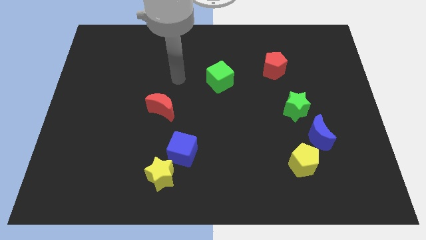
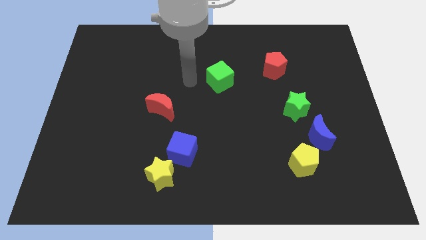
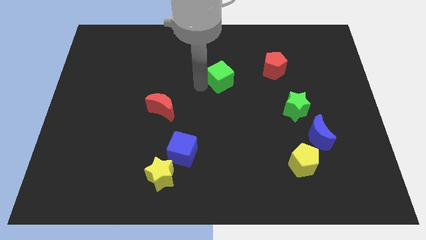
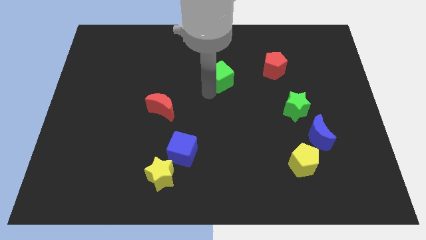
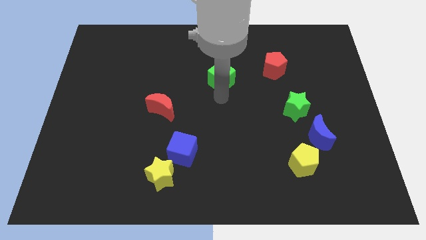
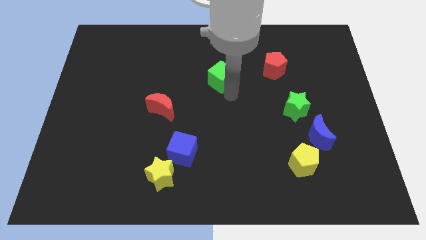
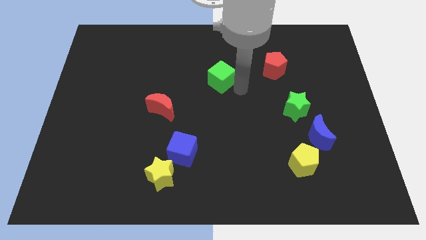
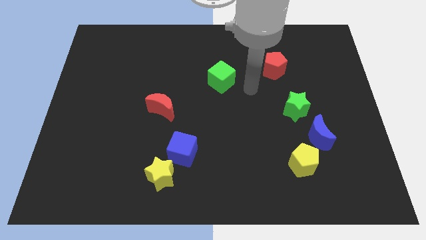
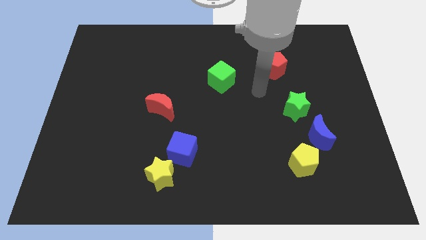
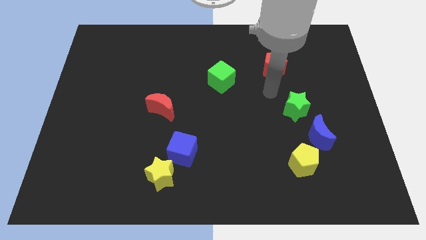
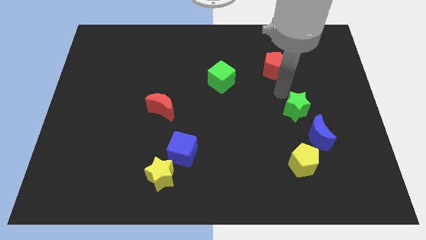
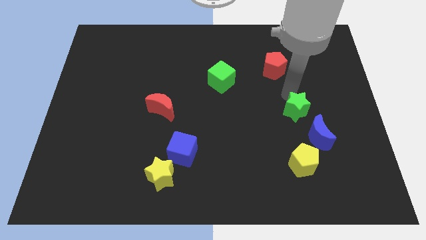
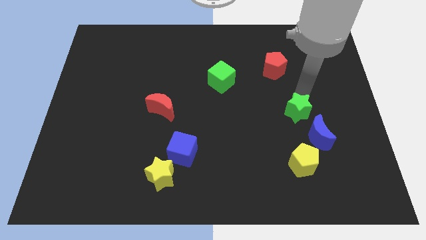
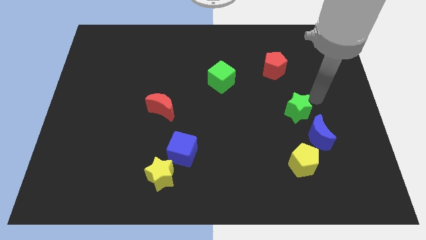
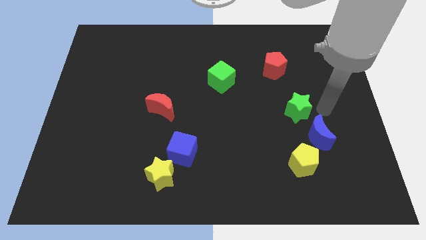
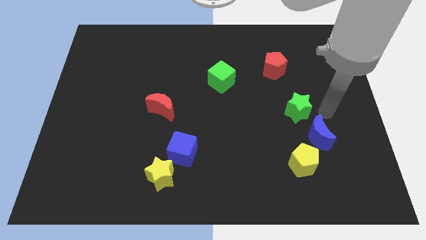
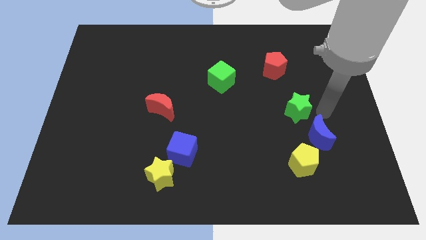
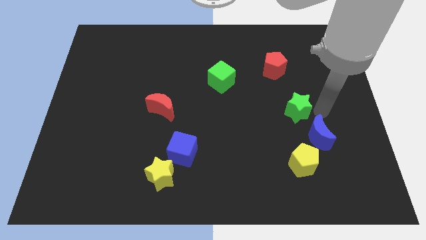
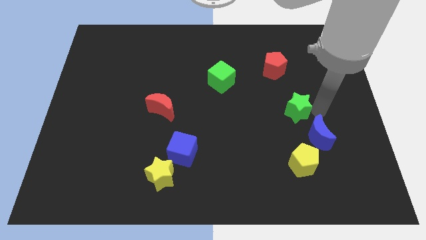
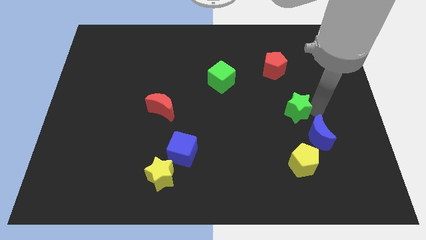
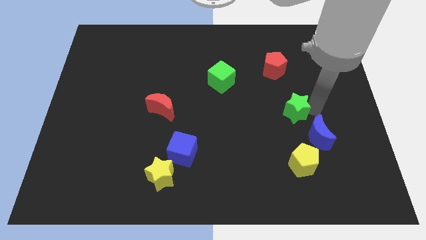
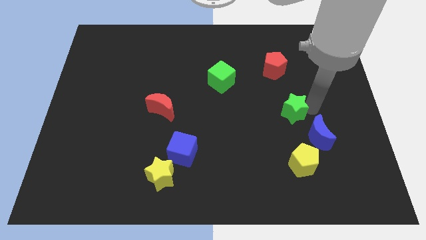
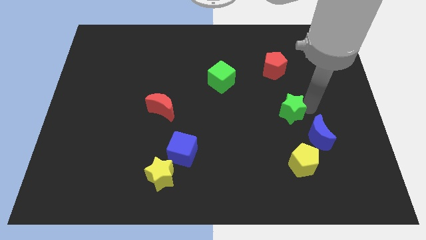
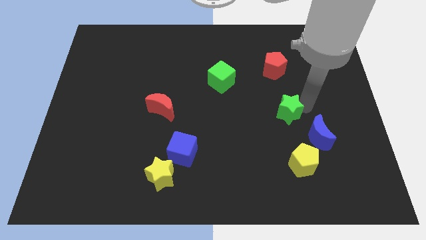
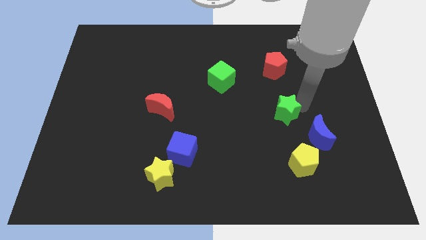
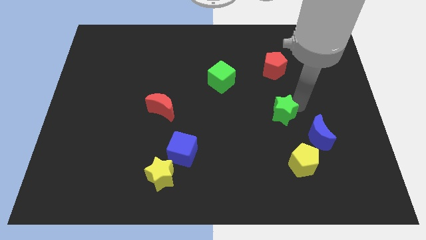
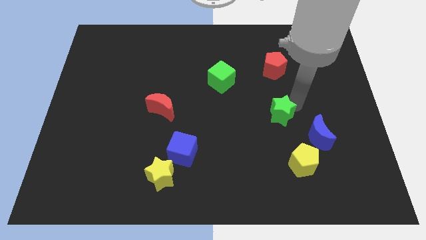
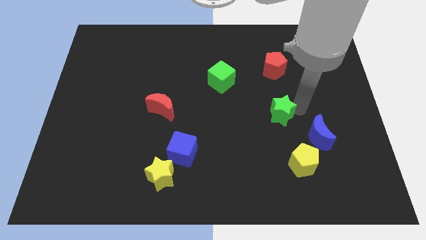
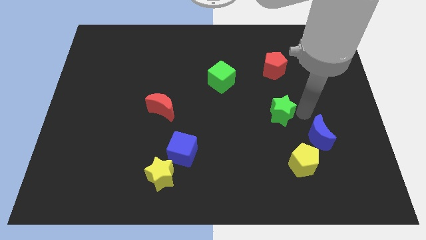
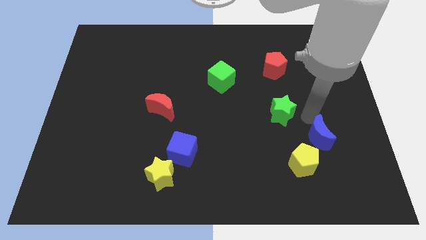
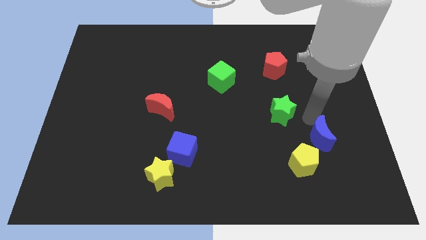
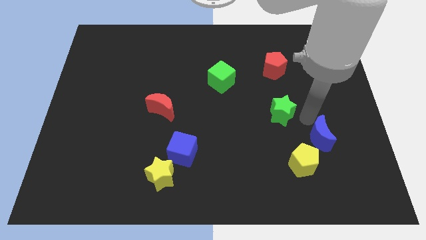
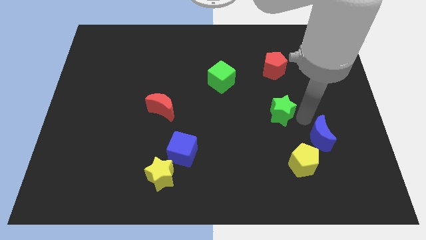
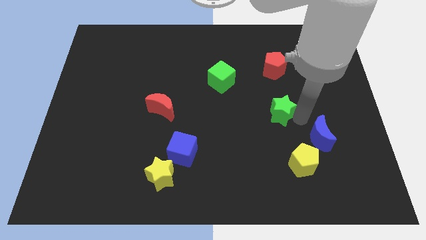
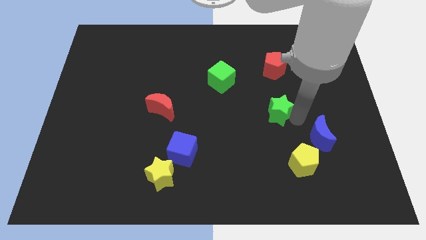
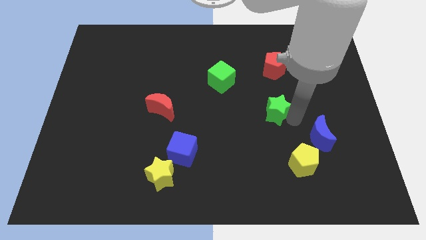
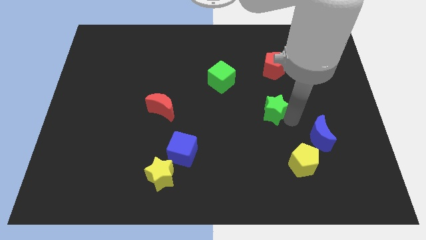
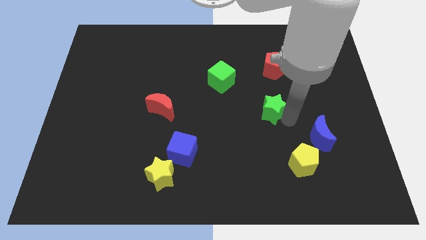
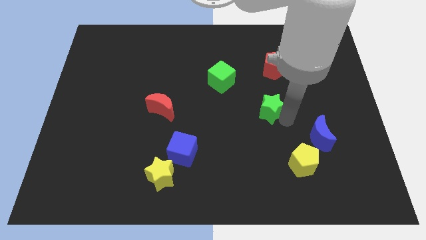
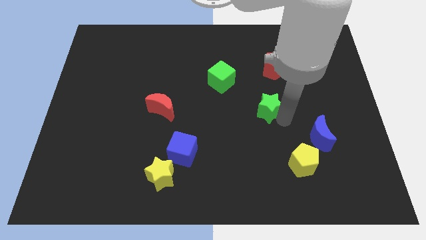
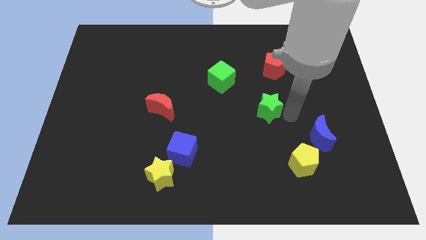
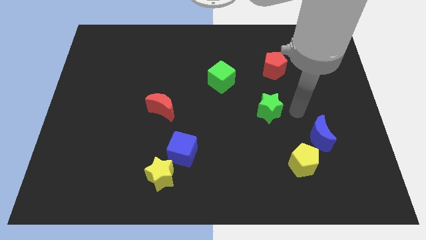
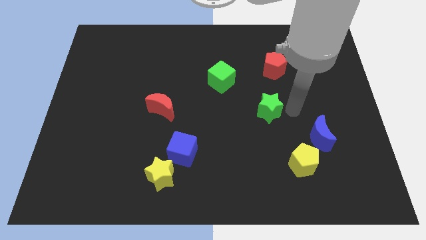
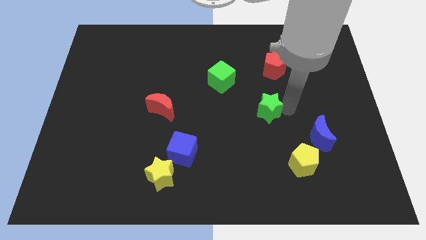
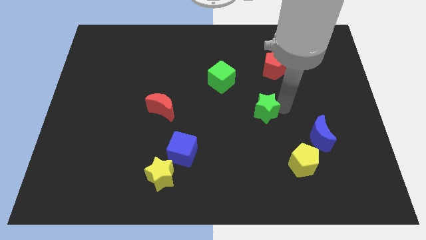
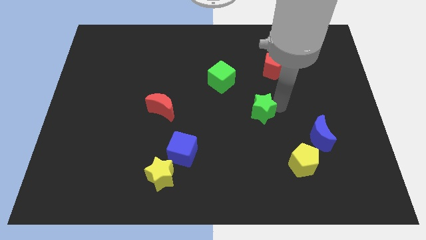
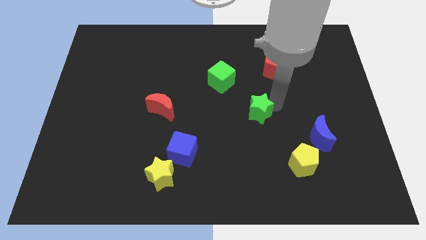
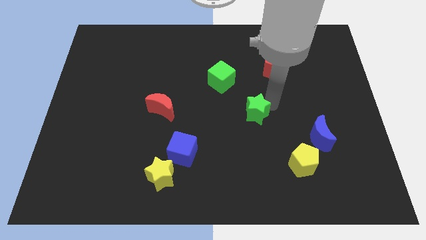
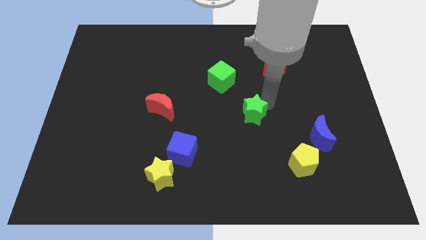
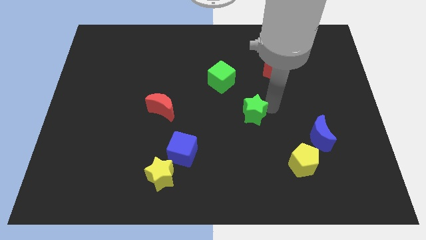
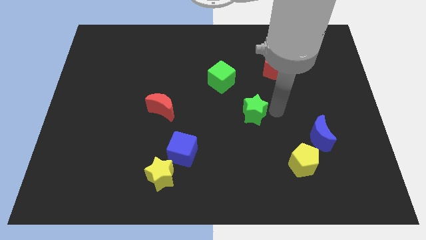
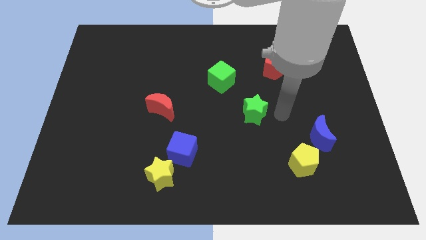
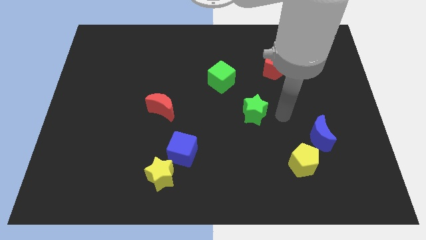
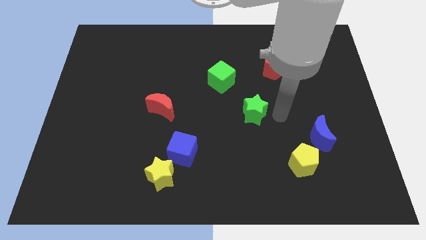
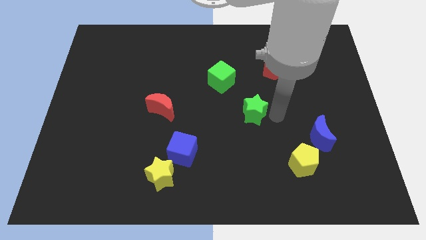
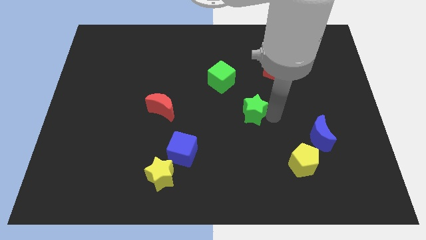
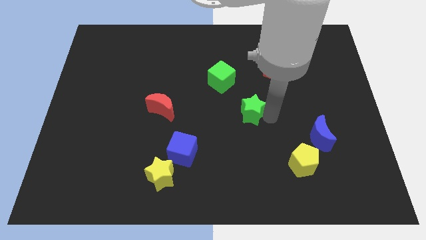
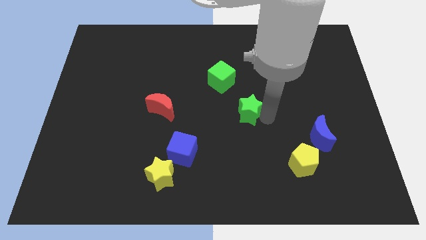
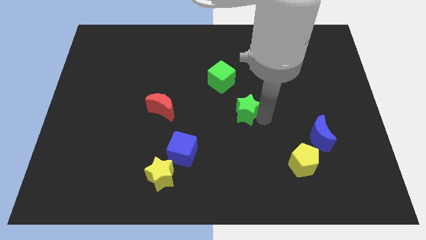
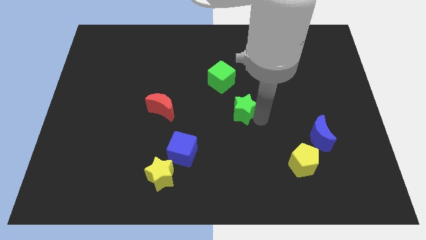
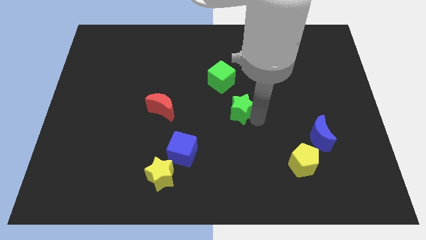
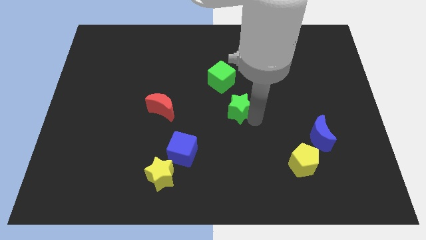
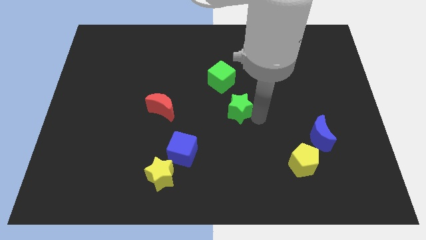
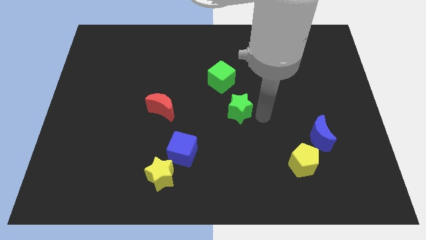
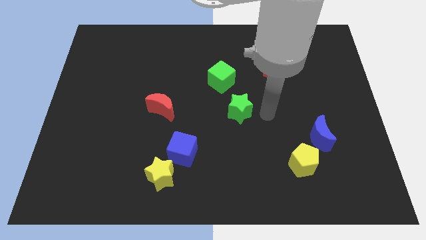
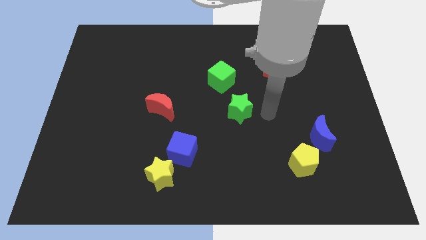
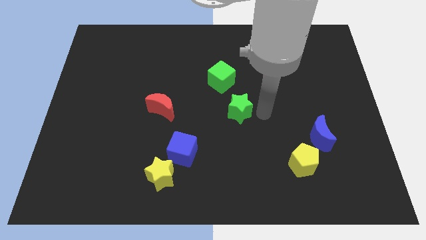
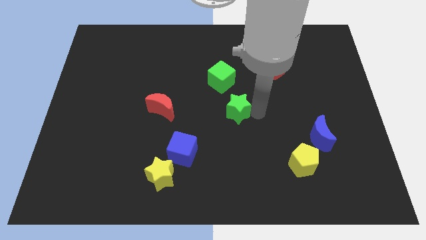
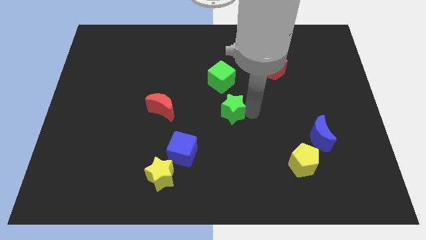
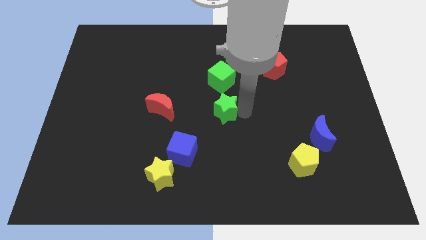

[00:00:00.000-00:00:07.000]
push the green star right of the red moon
